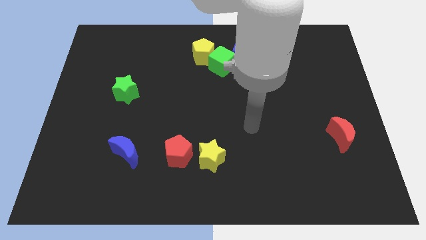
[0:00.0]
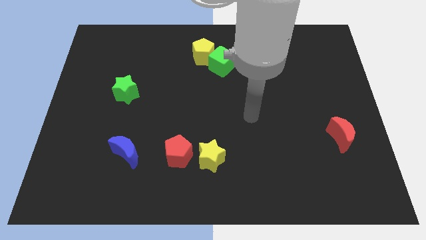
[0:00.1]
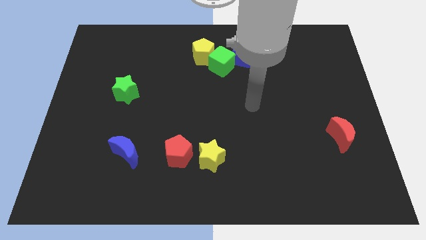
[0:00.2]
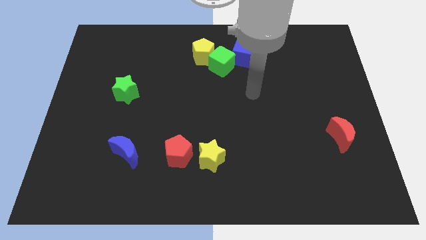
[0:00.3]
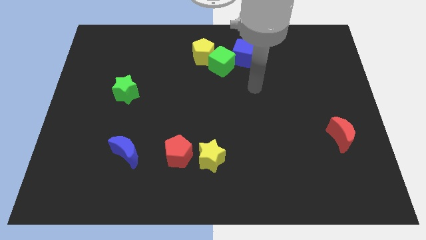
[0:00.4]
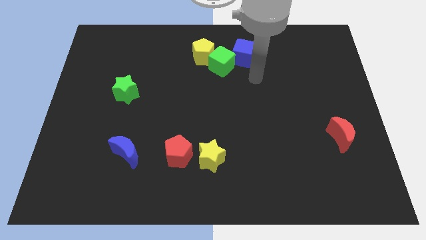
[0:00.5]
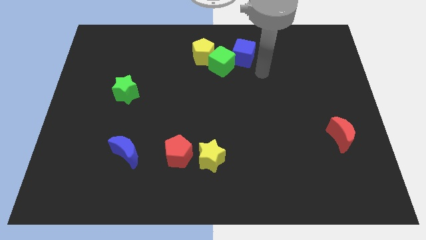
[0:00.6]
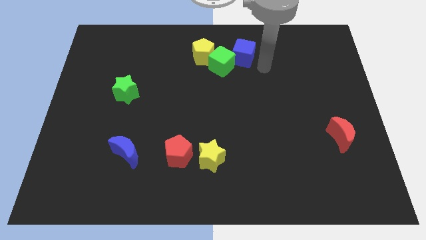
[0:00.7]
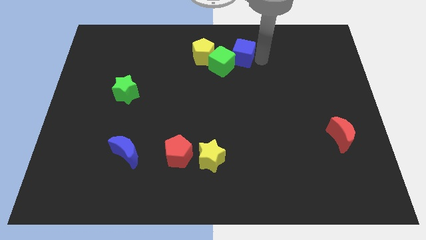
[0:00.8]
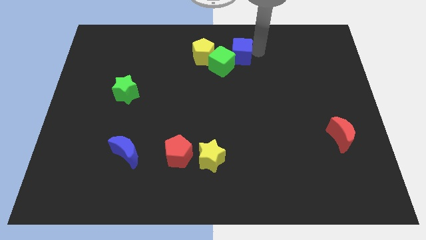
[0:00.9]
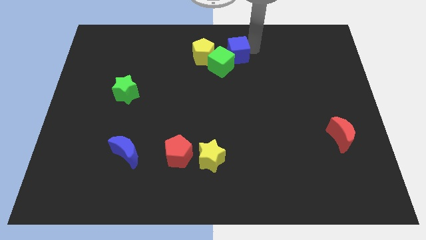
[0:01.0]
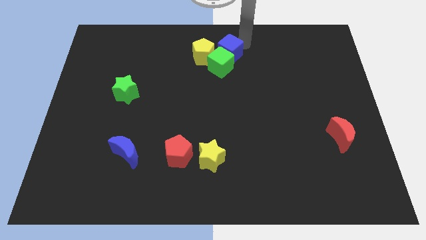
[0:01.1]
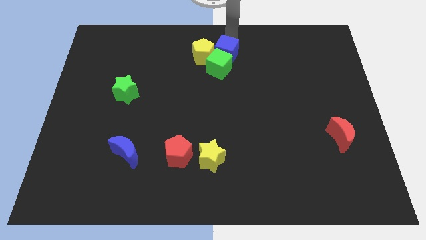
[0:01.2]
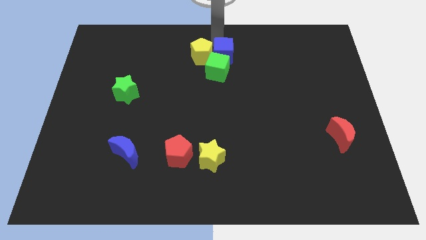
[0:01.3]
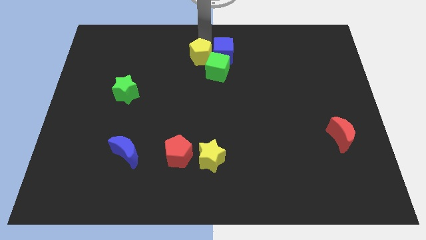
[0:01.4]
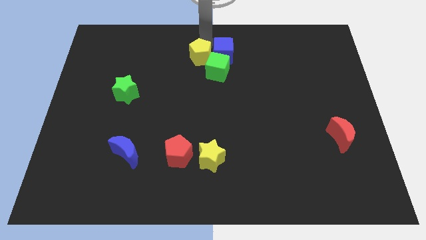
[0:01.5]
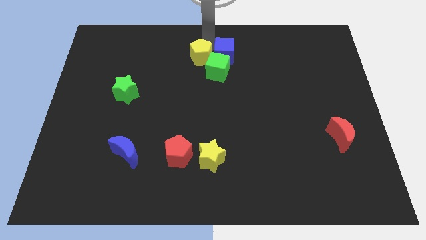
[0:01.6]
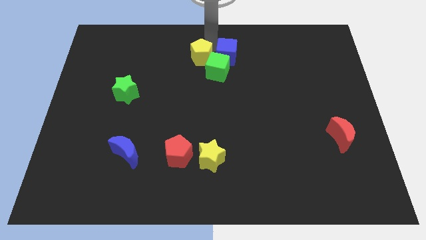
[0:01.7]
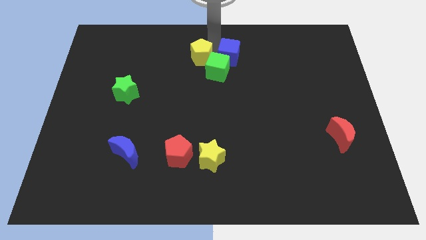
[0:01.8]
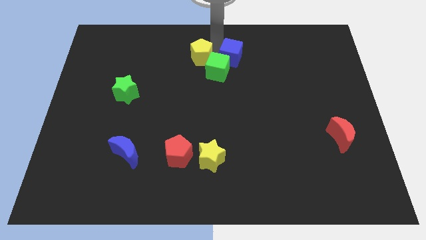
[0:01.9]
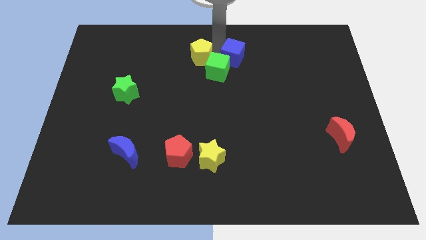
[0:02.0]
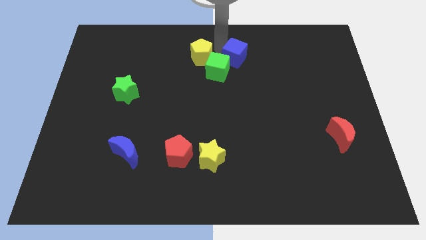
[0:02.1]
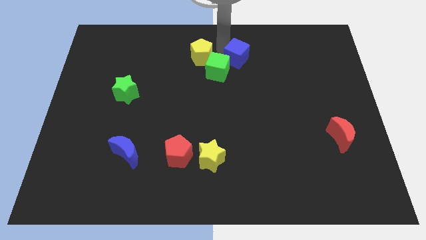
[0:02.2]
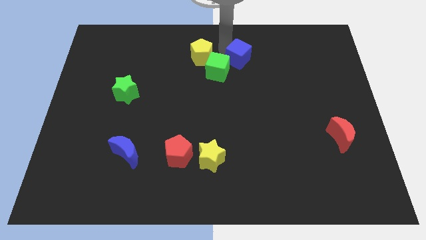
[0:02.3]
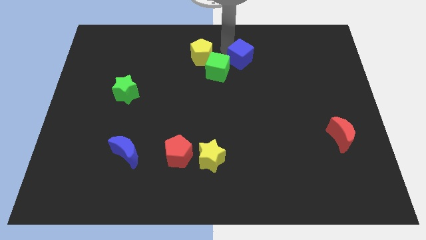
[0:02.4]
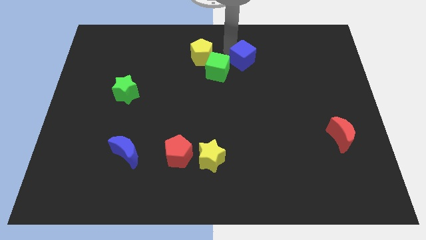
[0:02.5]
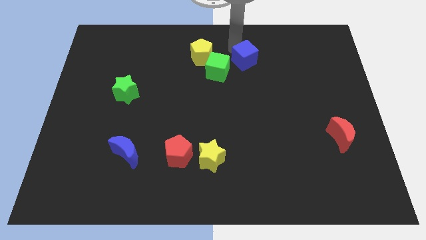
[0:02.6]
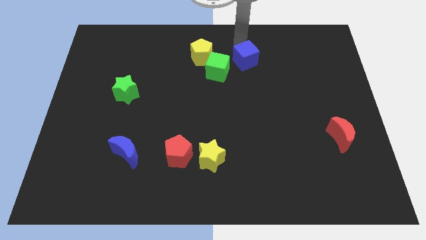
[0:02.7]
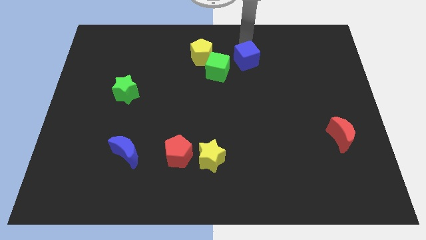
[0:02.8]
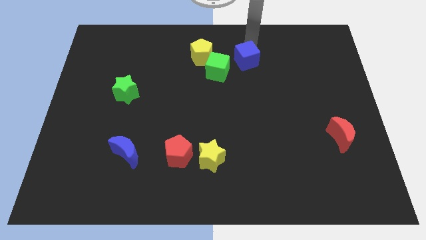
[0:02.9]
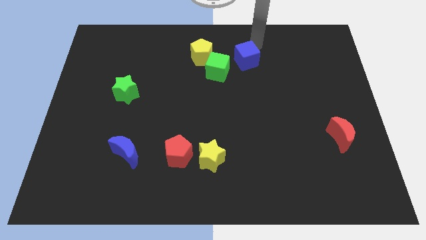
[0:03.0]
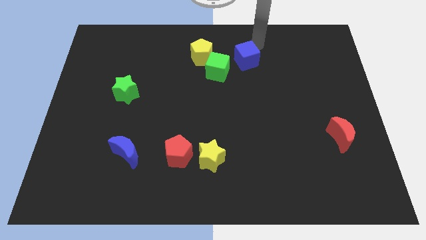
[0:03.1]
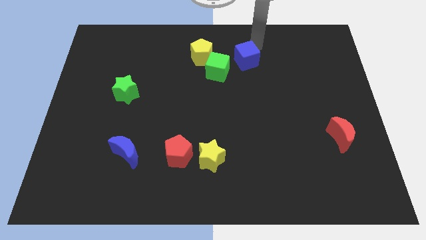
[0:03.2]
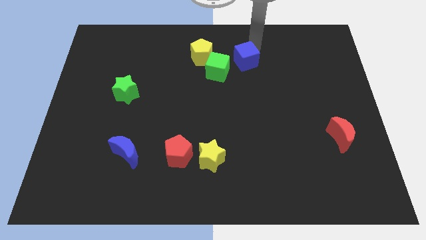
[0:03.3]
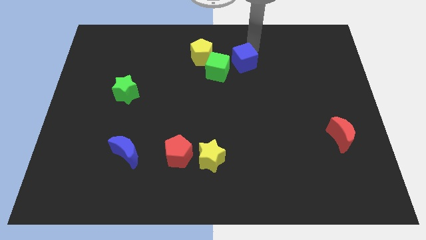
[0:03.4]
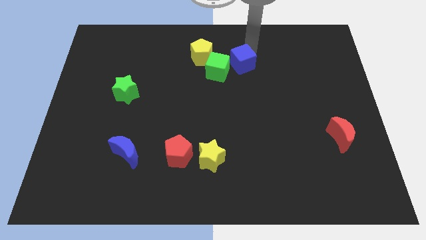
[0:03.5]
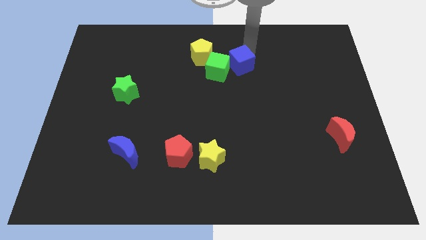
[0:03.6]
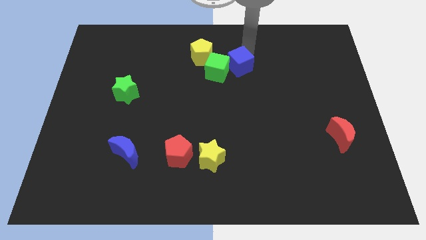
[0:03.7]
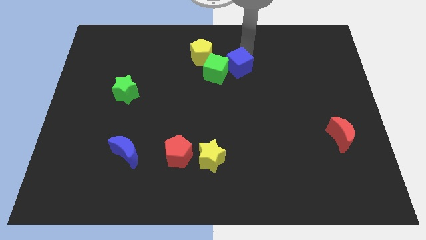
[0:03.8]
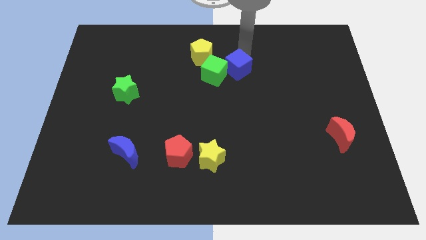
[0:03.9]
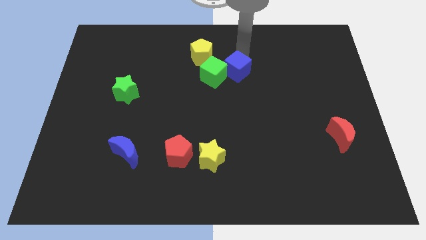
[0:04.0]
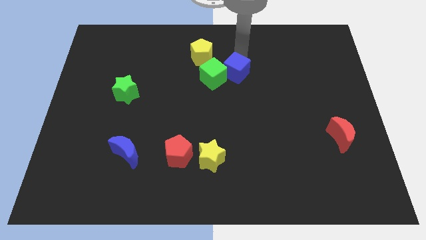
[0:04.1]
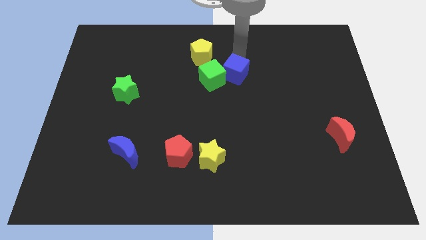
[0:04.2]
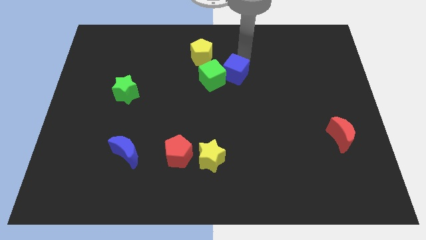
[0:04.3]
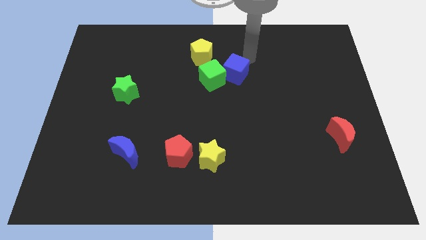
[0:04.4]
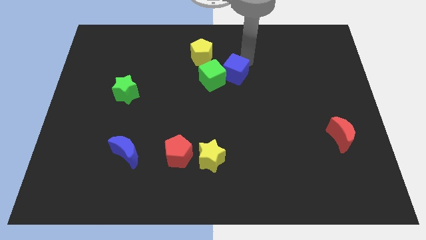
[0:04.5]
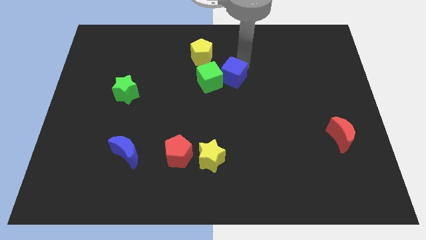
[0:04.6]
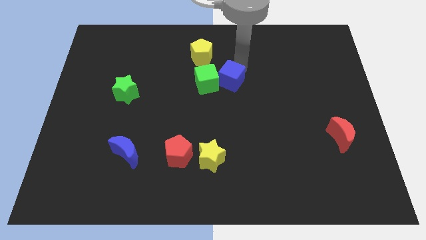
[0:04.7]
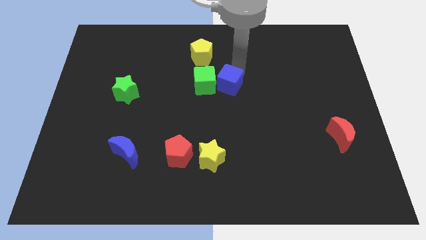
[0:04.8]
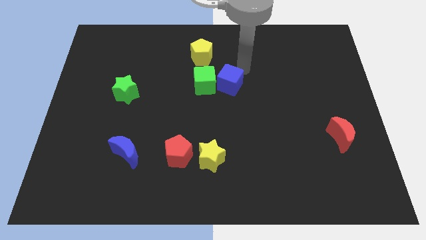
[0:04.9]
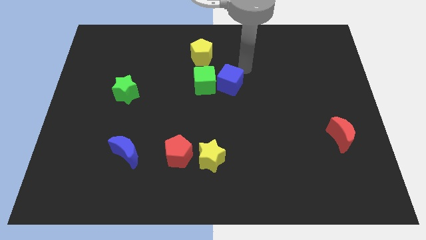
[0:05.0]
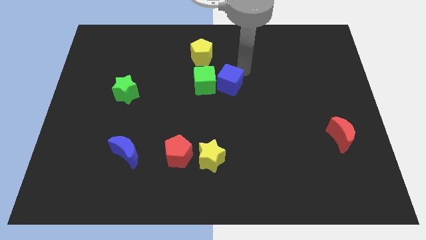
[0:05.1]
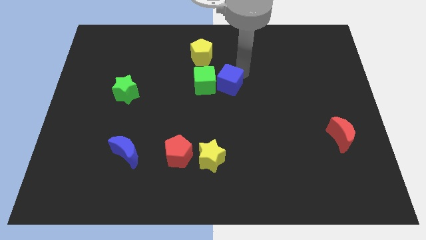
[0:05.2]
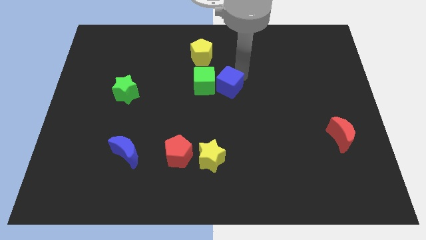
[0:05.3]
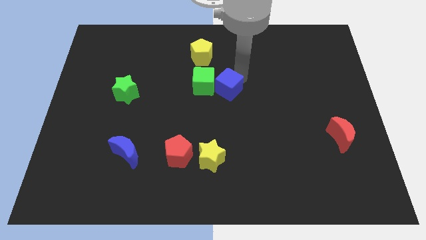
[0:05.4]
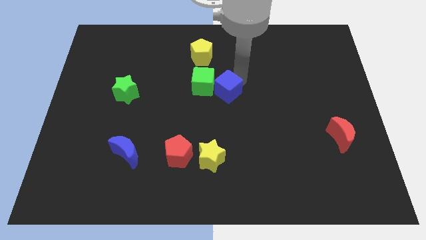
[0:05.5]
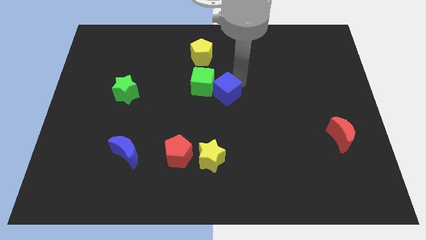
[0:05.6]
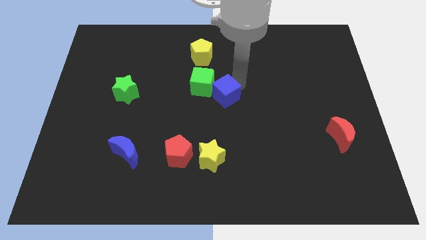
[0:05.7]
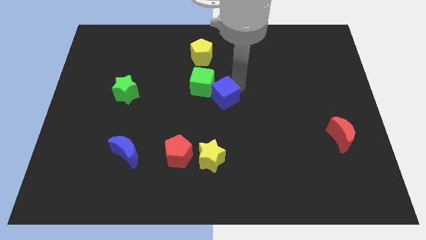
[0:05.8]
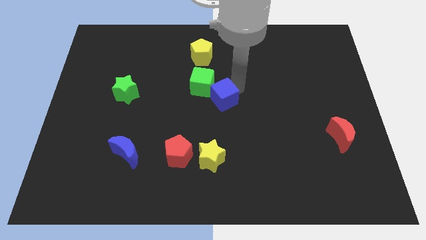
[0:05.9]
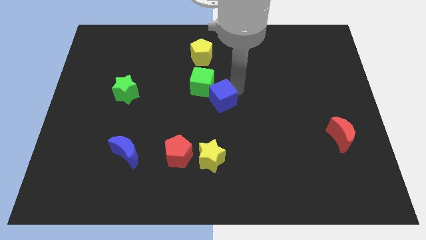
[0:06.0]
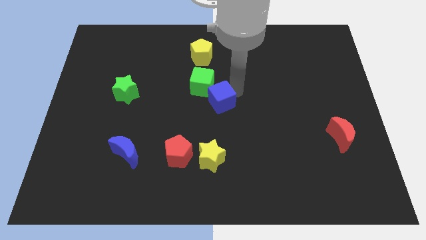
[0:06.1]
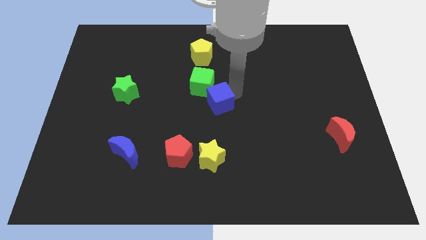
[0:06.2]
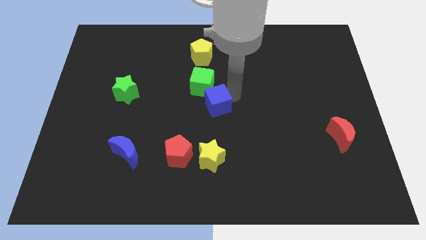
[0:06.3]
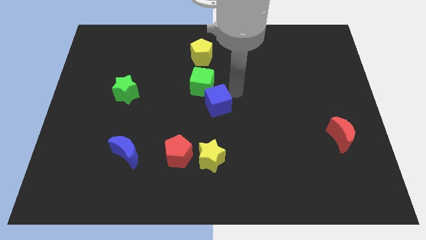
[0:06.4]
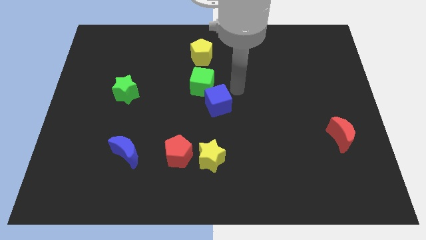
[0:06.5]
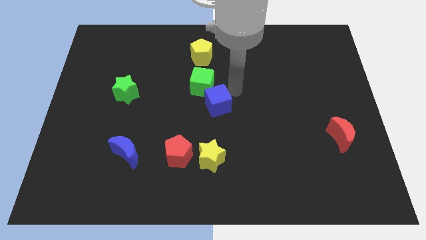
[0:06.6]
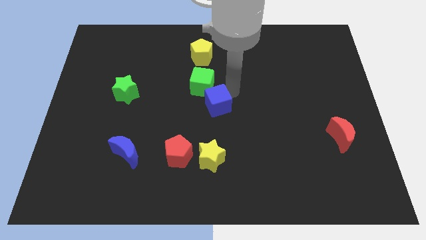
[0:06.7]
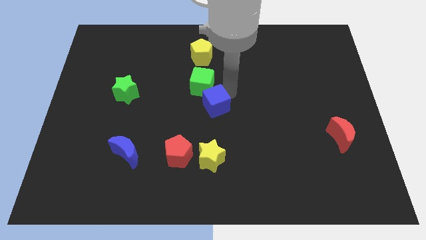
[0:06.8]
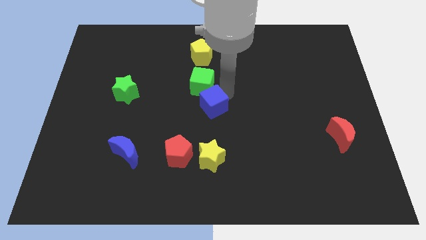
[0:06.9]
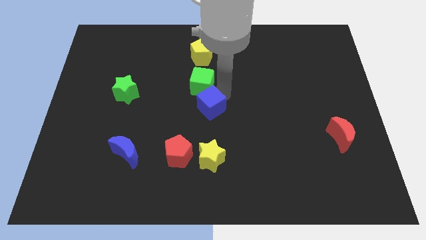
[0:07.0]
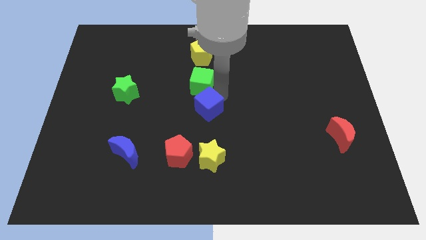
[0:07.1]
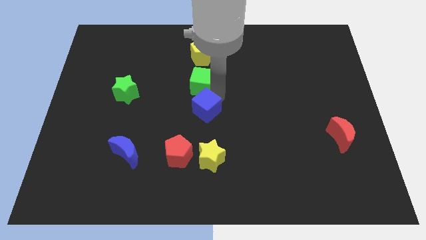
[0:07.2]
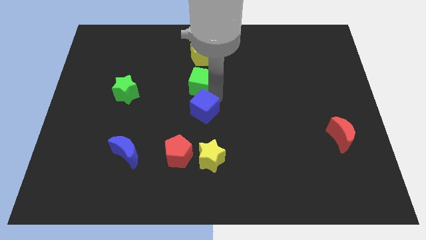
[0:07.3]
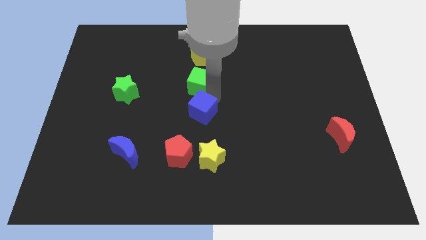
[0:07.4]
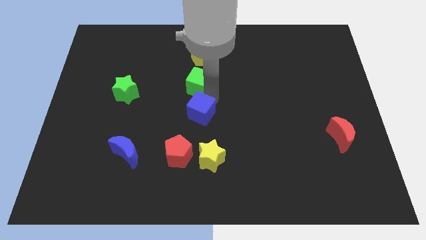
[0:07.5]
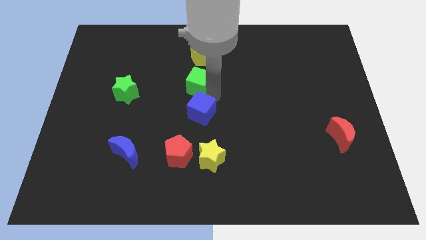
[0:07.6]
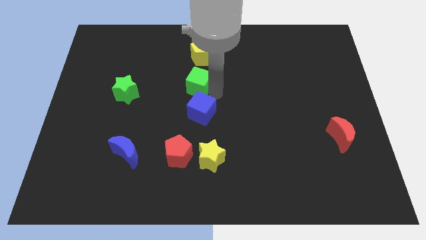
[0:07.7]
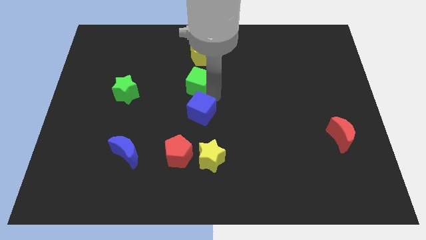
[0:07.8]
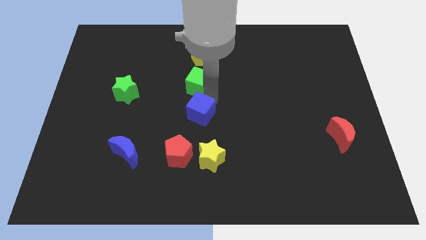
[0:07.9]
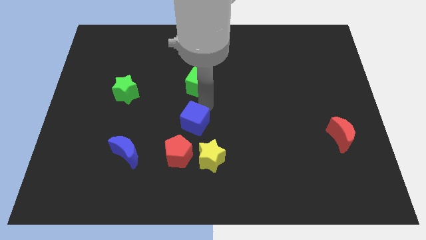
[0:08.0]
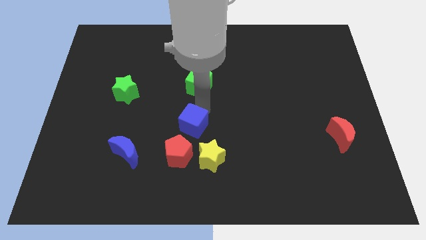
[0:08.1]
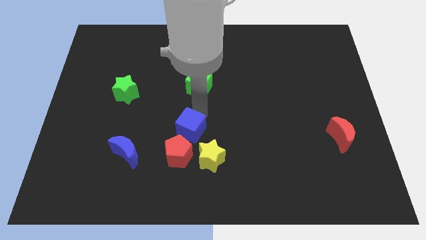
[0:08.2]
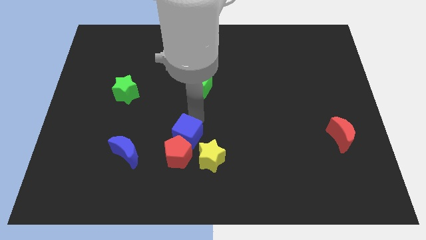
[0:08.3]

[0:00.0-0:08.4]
slide the blue cube towards the red pentagon
